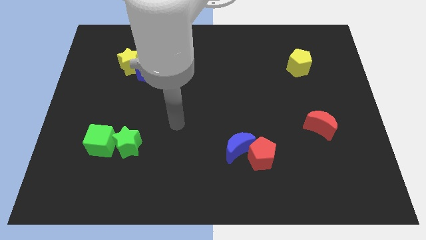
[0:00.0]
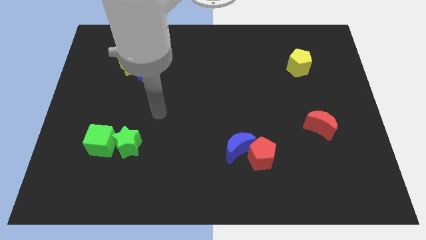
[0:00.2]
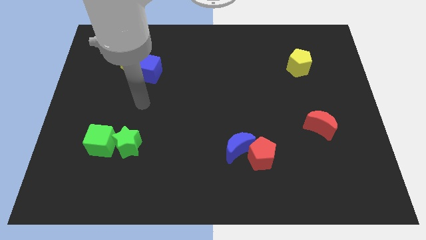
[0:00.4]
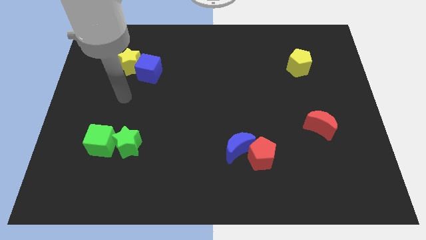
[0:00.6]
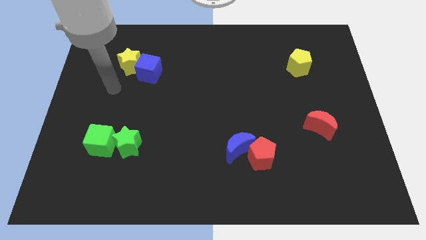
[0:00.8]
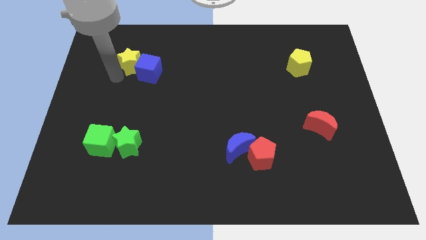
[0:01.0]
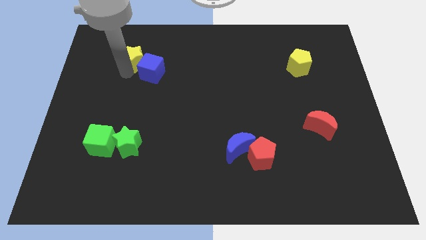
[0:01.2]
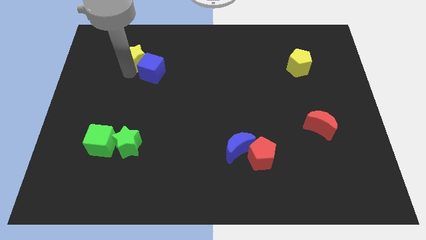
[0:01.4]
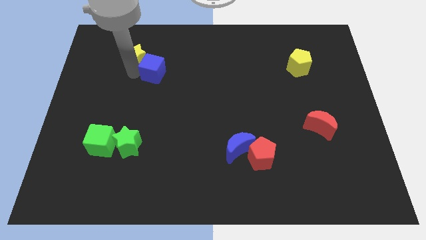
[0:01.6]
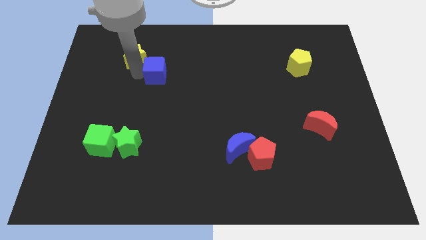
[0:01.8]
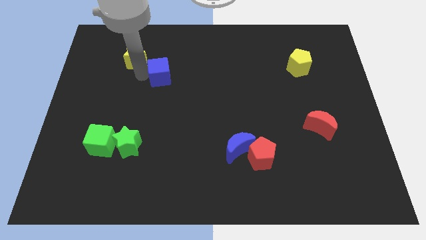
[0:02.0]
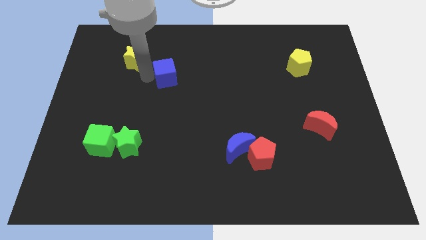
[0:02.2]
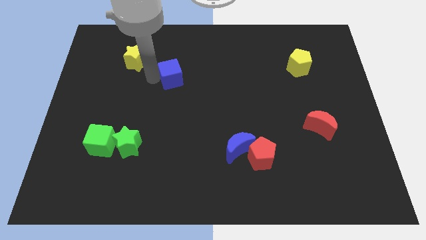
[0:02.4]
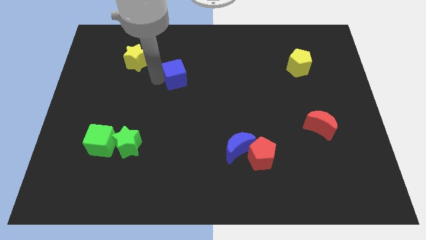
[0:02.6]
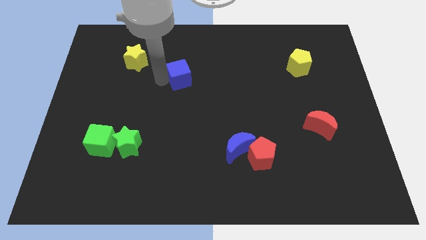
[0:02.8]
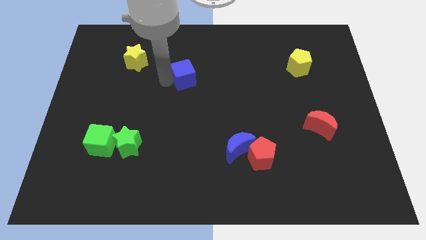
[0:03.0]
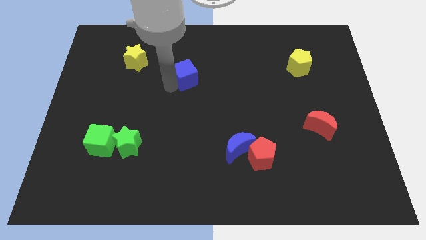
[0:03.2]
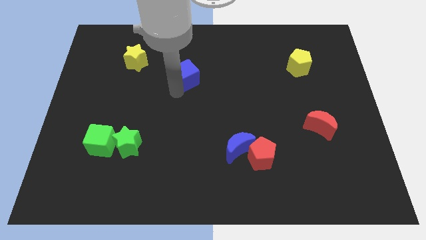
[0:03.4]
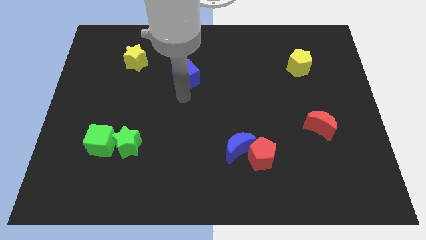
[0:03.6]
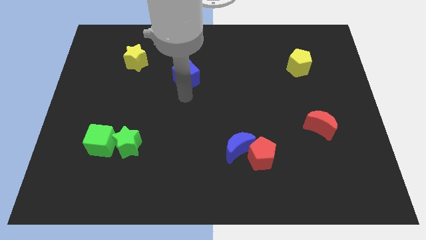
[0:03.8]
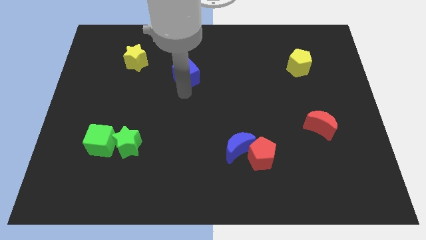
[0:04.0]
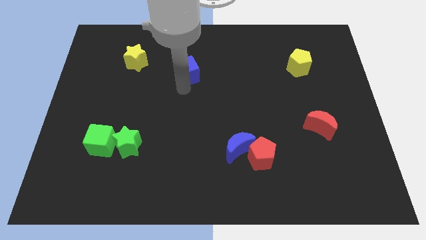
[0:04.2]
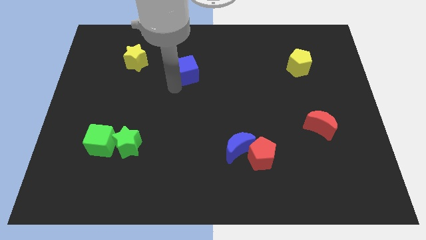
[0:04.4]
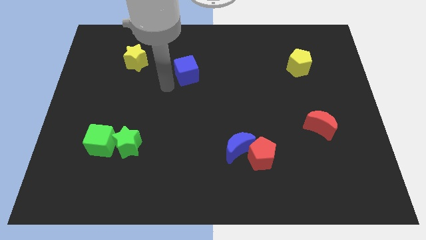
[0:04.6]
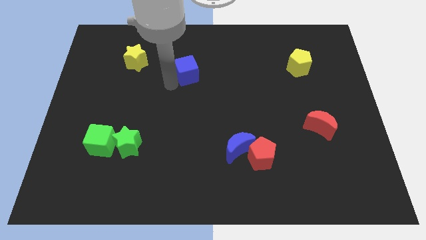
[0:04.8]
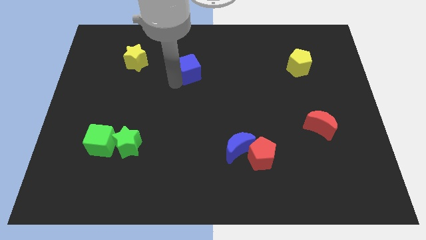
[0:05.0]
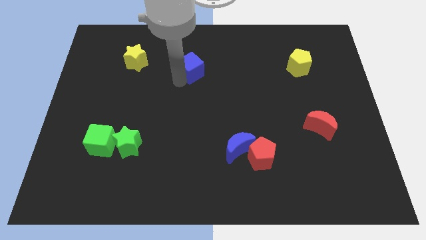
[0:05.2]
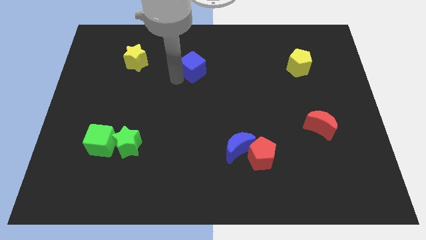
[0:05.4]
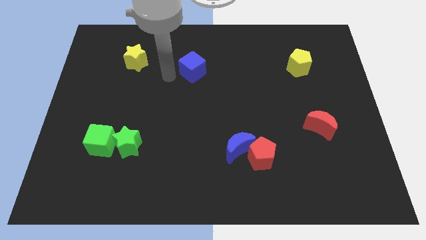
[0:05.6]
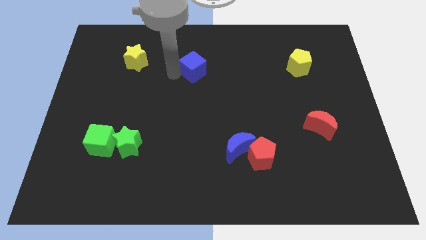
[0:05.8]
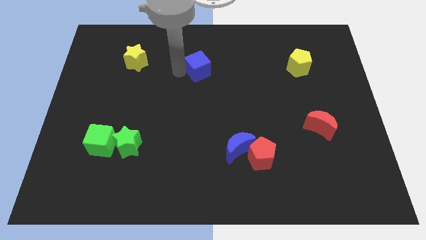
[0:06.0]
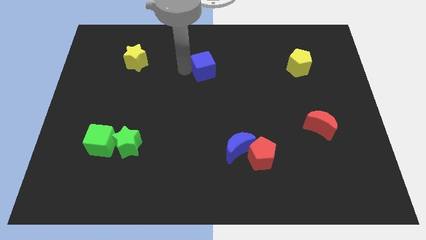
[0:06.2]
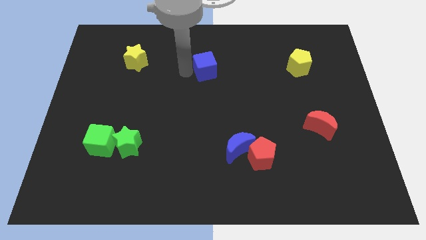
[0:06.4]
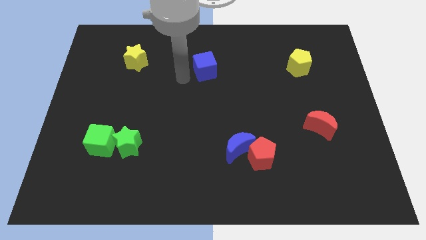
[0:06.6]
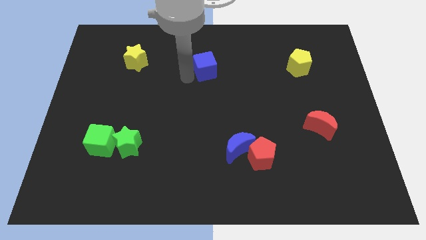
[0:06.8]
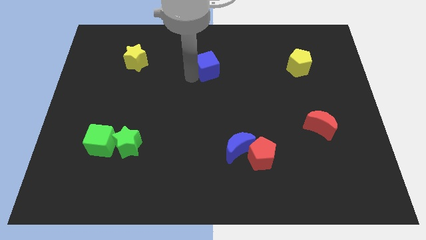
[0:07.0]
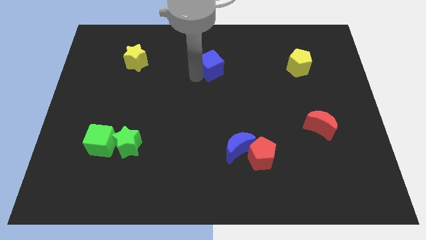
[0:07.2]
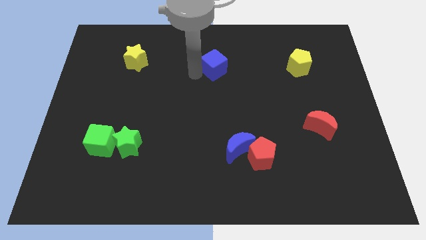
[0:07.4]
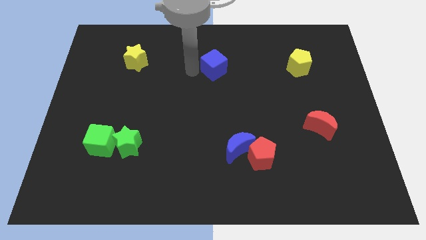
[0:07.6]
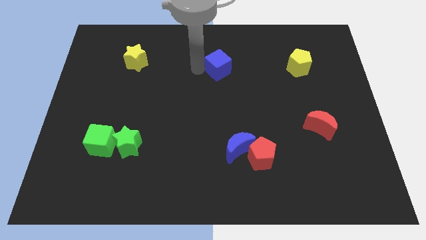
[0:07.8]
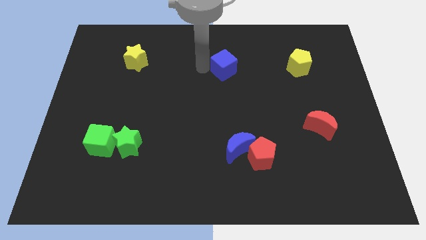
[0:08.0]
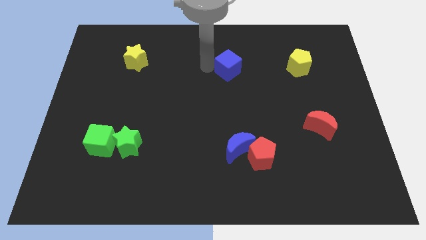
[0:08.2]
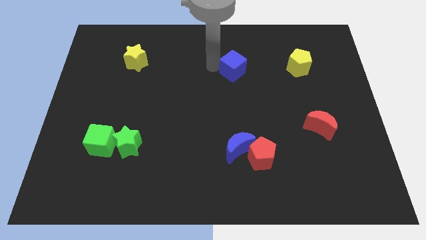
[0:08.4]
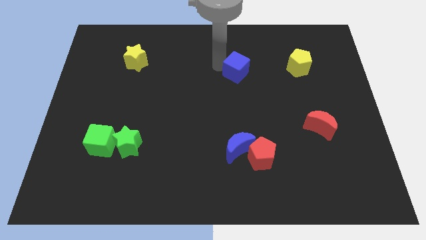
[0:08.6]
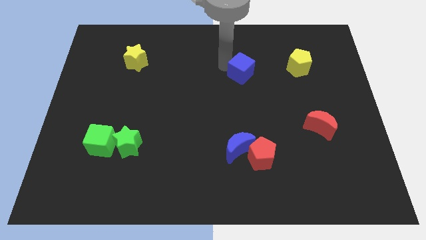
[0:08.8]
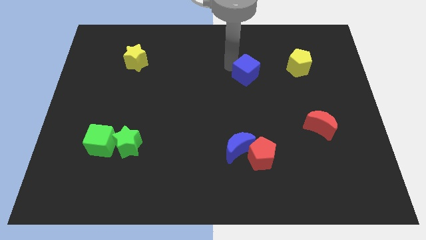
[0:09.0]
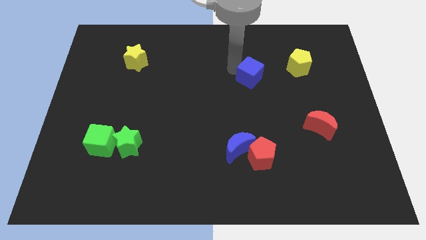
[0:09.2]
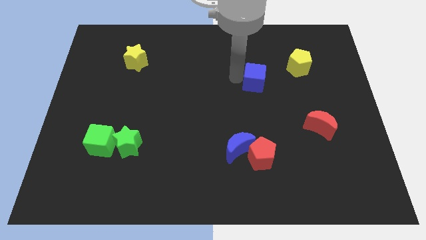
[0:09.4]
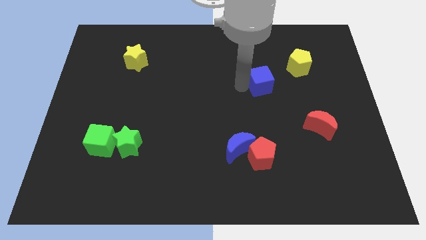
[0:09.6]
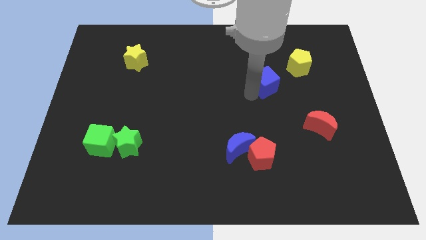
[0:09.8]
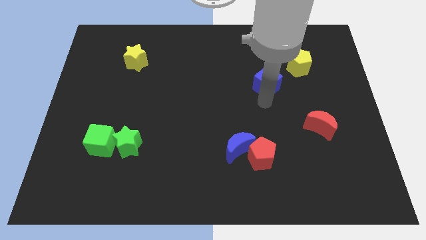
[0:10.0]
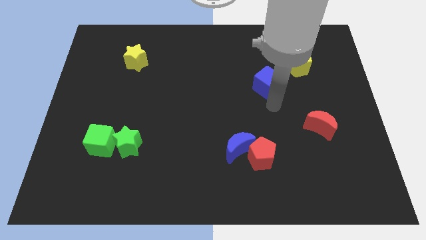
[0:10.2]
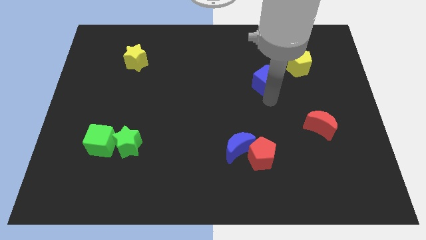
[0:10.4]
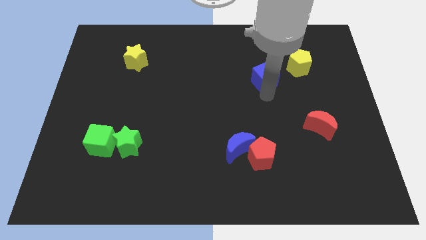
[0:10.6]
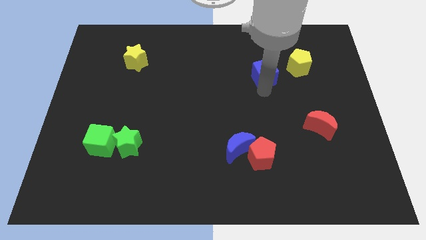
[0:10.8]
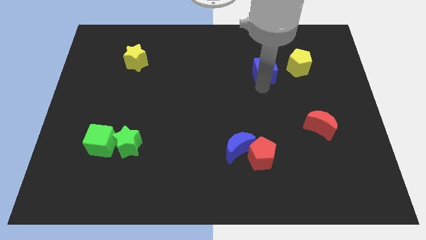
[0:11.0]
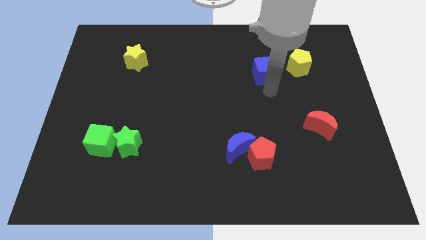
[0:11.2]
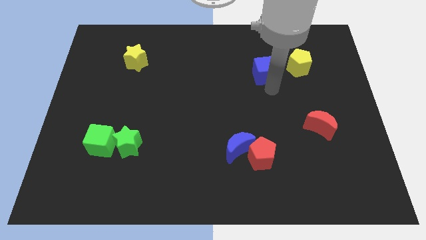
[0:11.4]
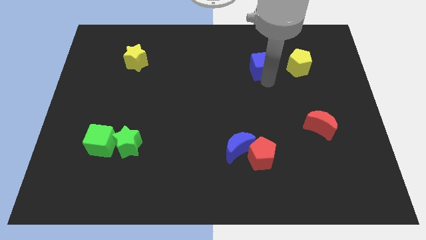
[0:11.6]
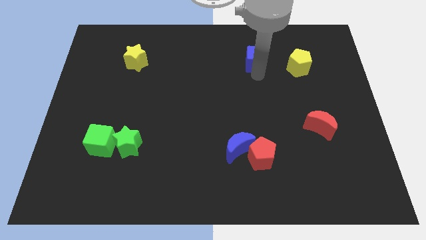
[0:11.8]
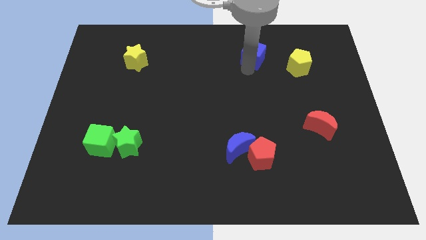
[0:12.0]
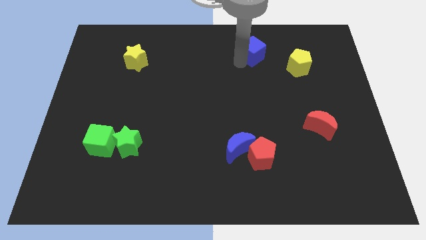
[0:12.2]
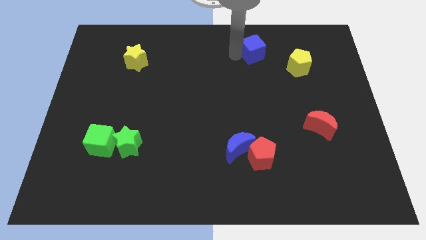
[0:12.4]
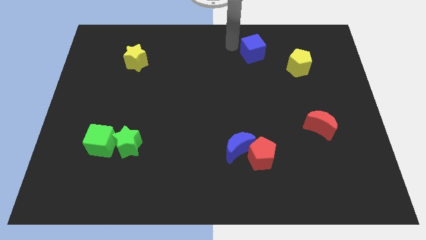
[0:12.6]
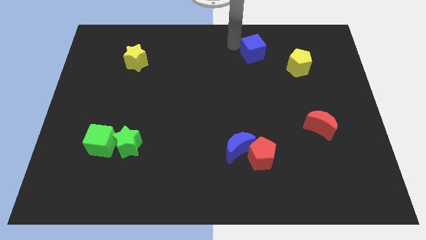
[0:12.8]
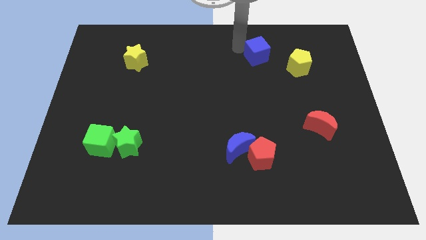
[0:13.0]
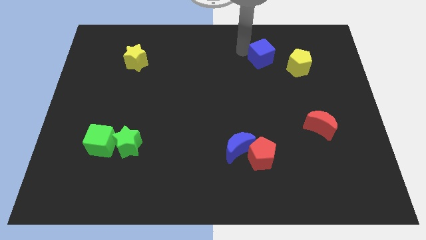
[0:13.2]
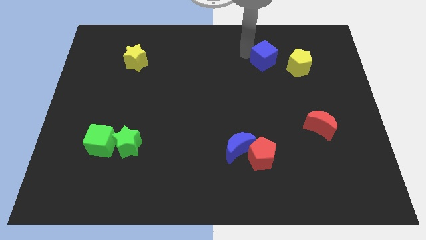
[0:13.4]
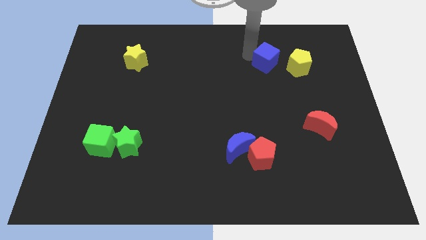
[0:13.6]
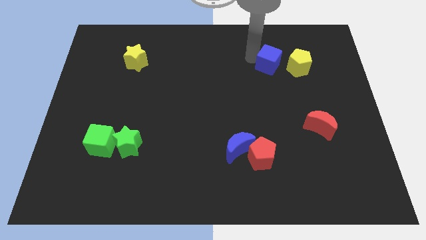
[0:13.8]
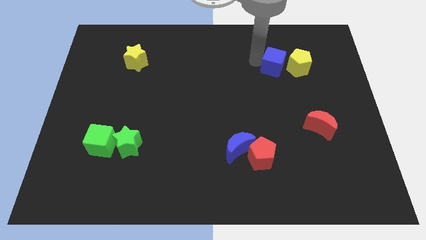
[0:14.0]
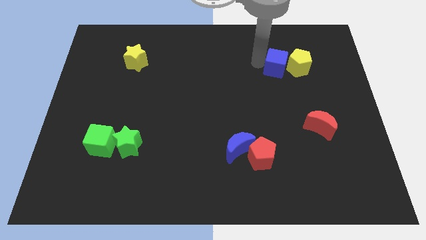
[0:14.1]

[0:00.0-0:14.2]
push the blue cube close to the yellow pentagon
